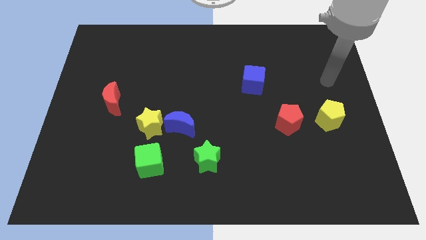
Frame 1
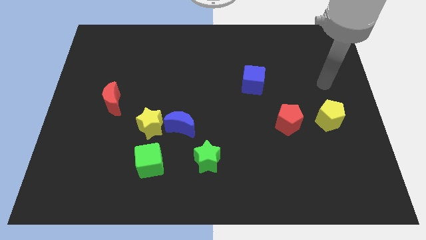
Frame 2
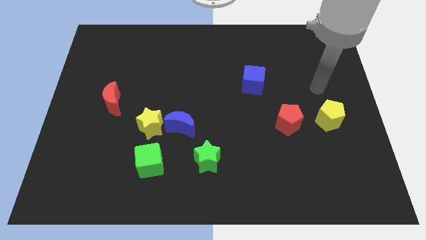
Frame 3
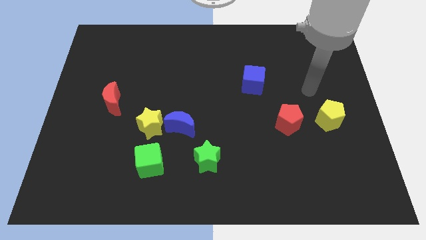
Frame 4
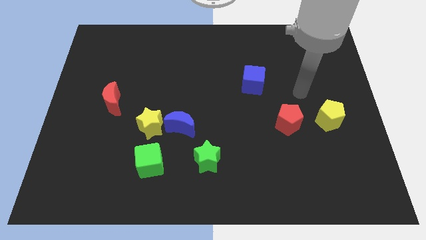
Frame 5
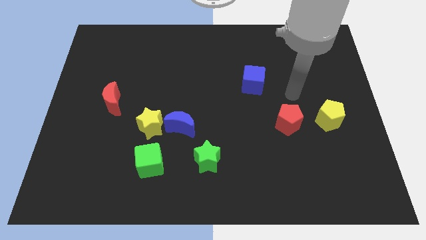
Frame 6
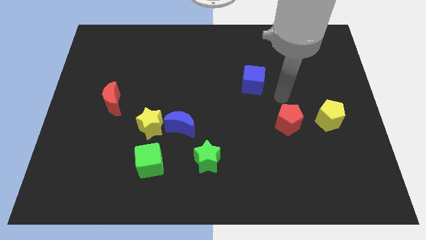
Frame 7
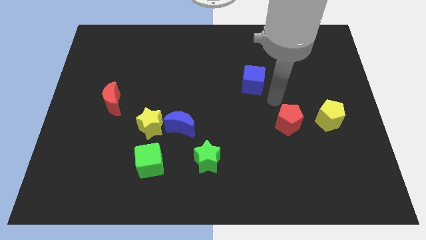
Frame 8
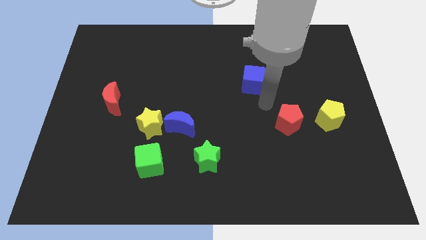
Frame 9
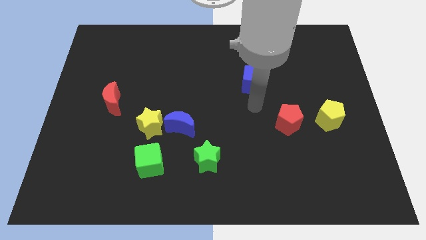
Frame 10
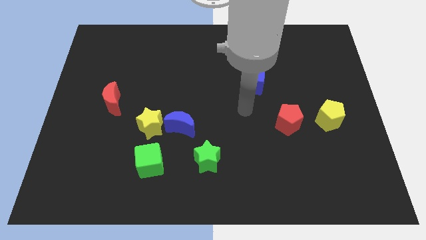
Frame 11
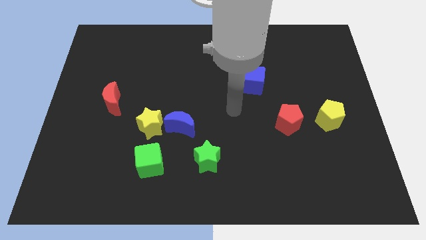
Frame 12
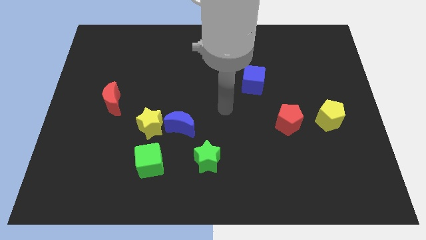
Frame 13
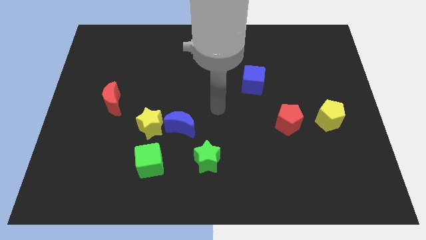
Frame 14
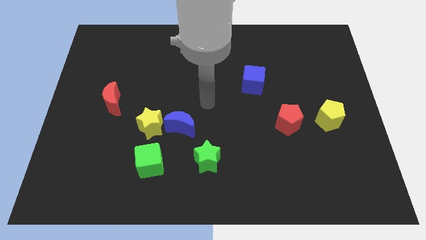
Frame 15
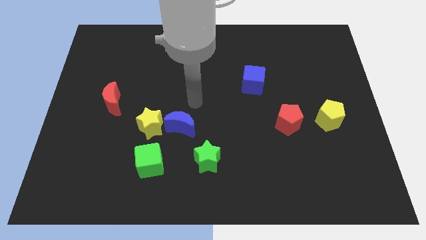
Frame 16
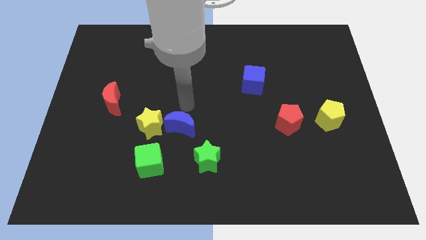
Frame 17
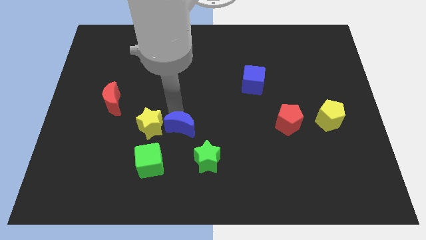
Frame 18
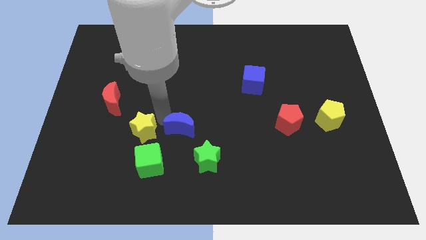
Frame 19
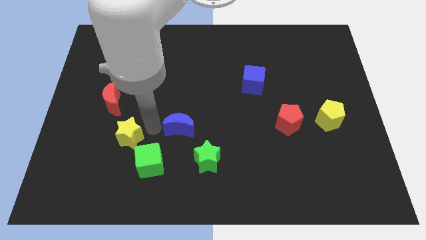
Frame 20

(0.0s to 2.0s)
move the blue moon away from the yellow star

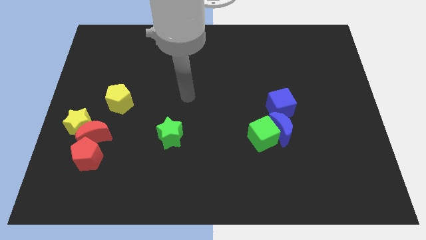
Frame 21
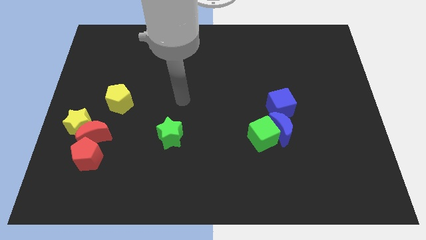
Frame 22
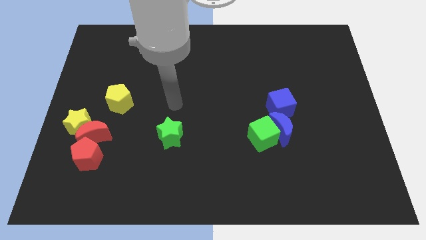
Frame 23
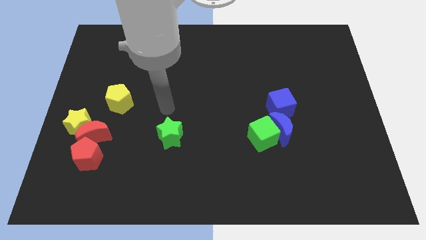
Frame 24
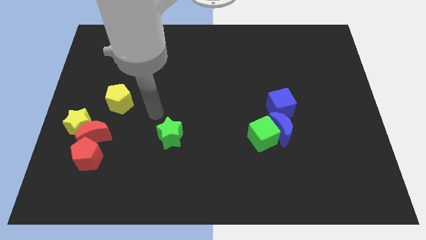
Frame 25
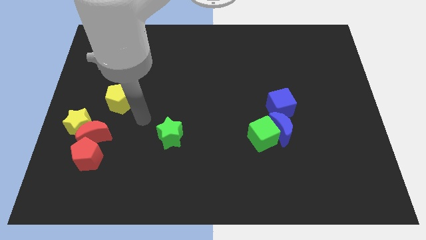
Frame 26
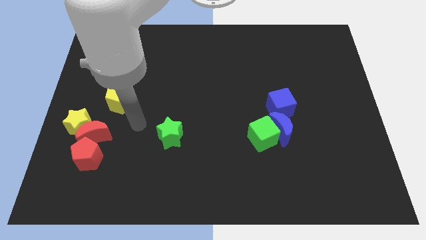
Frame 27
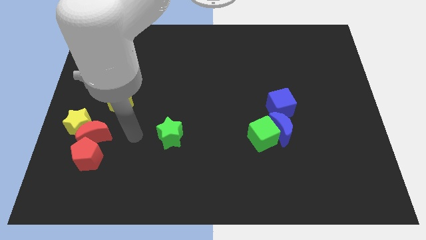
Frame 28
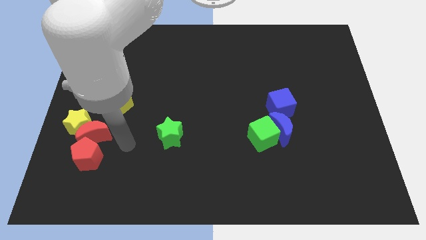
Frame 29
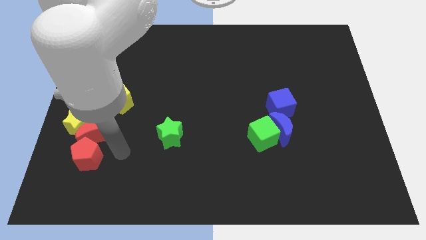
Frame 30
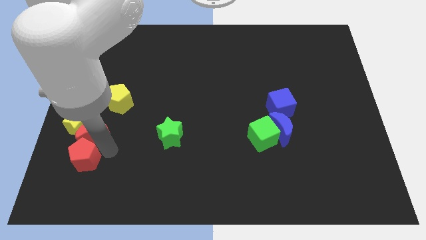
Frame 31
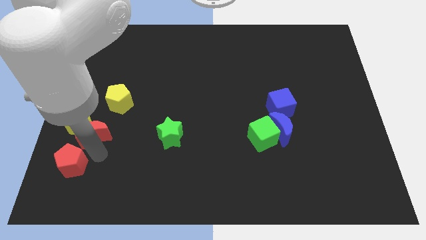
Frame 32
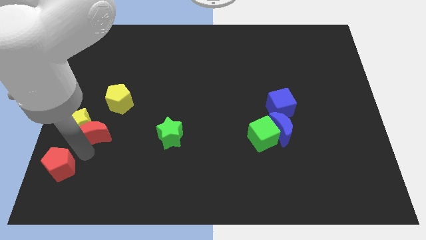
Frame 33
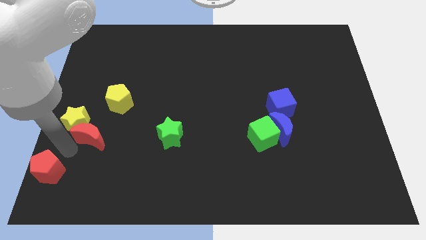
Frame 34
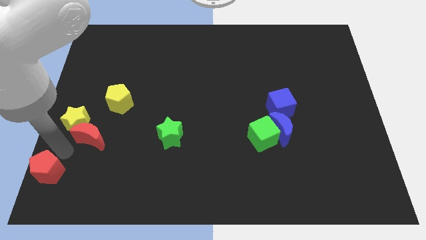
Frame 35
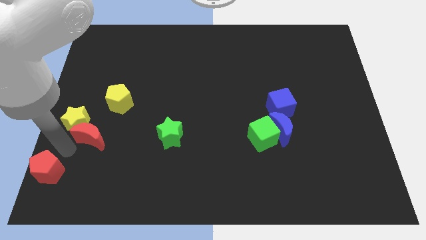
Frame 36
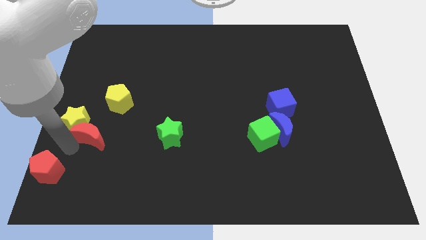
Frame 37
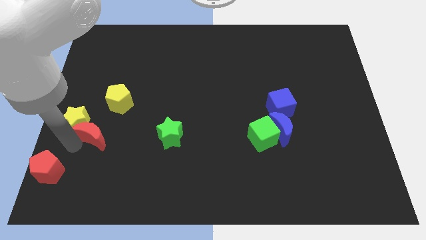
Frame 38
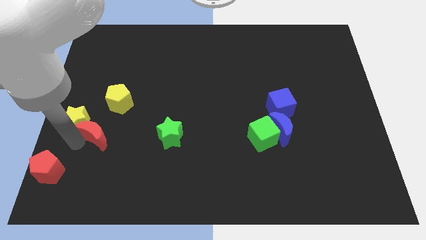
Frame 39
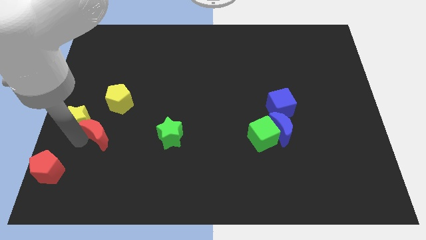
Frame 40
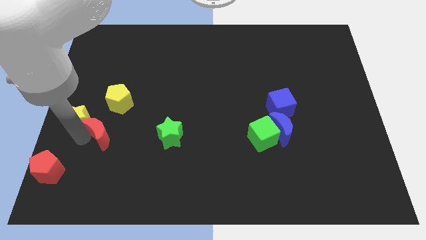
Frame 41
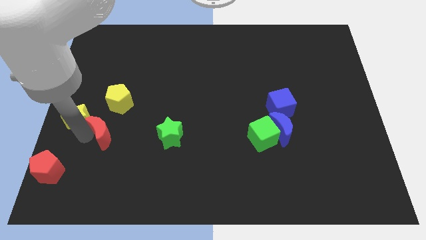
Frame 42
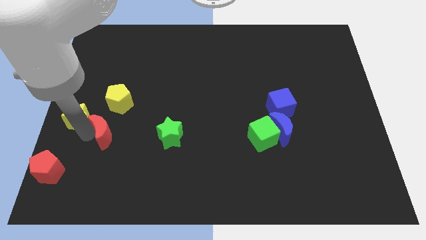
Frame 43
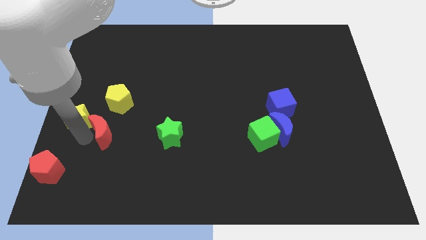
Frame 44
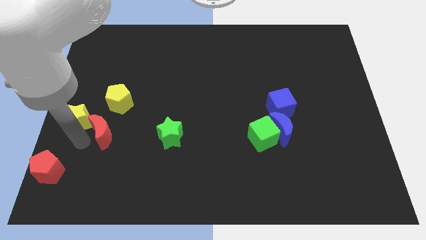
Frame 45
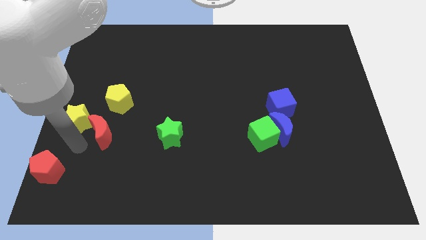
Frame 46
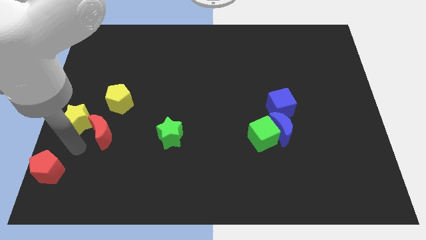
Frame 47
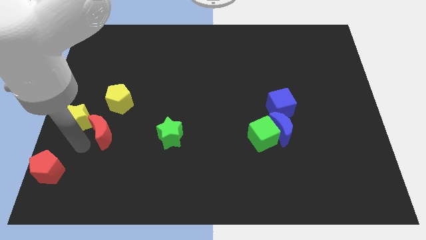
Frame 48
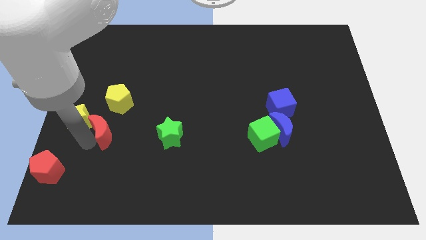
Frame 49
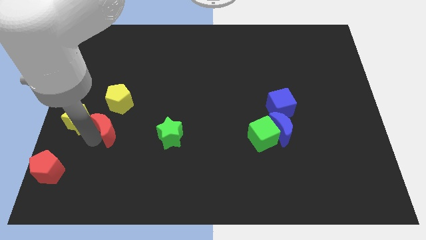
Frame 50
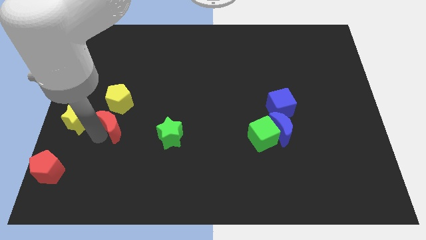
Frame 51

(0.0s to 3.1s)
separate the red moon from the yellow star and red pentagon

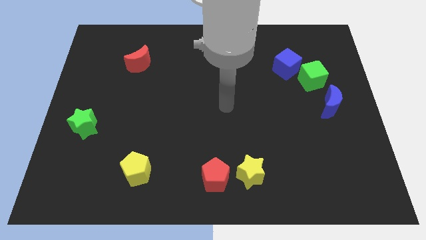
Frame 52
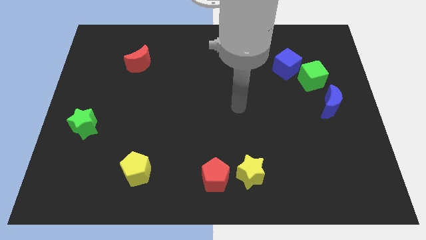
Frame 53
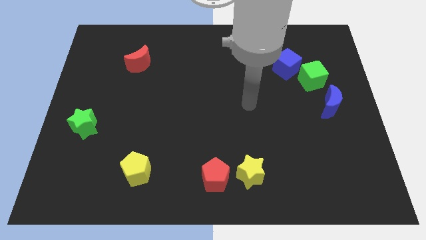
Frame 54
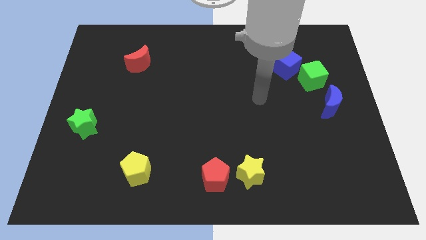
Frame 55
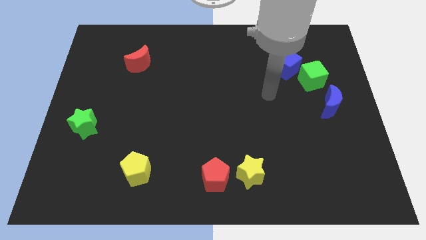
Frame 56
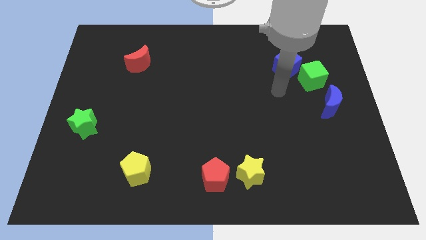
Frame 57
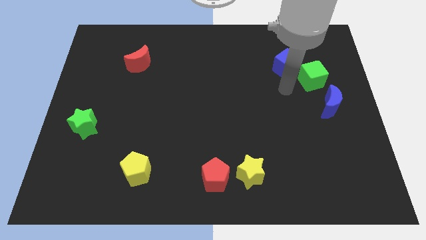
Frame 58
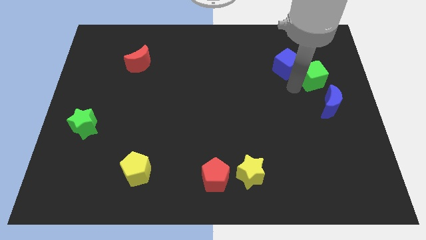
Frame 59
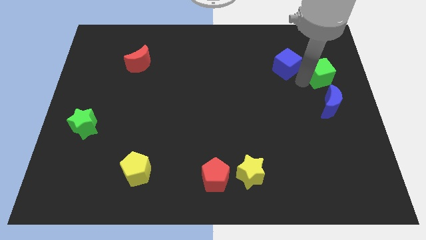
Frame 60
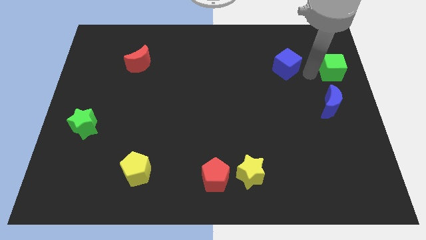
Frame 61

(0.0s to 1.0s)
move the blue cube away from the green cube

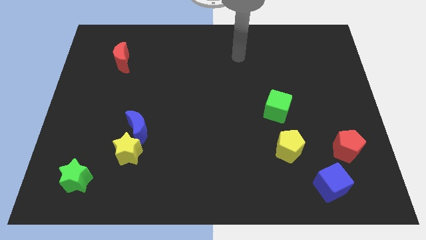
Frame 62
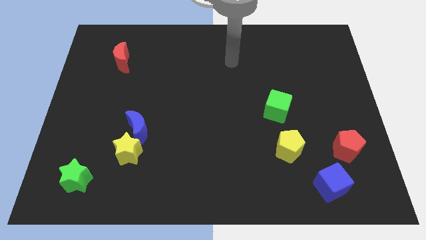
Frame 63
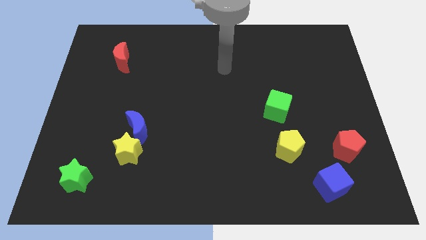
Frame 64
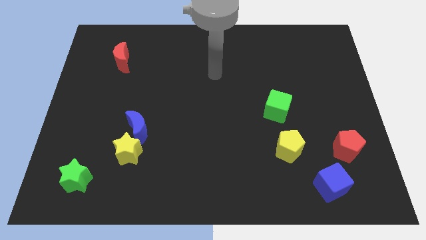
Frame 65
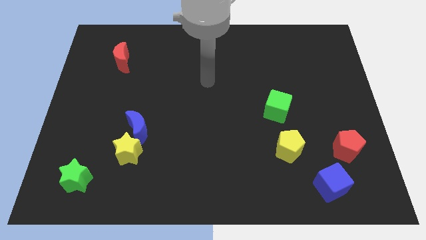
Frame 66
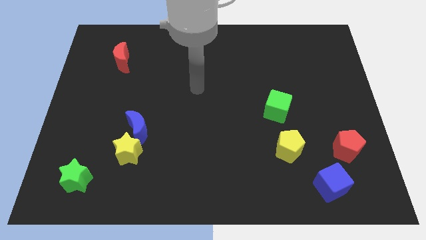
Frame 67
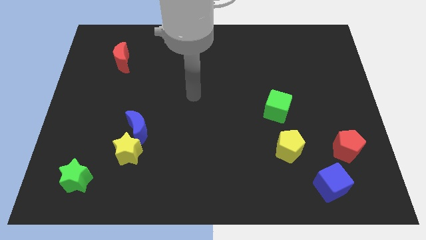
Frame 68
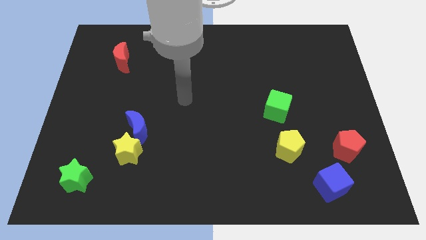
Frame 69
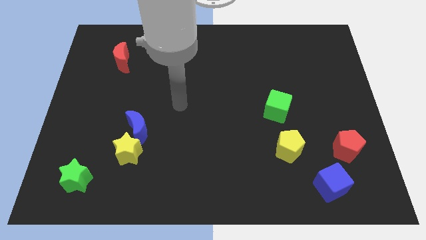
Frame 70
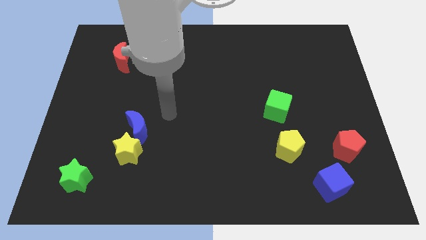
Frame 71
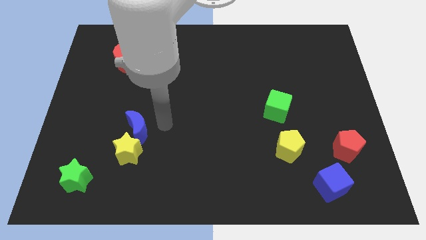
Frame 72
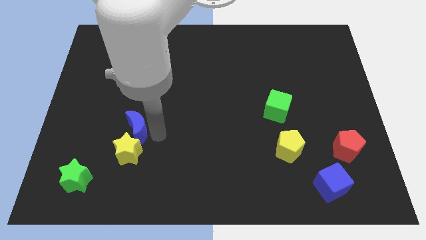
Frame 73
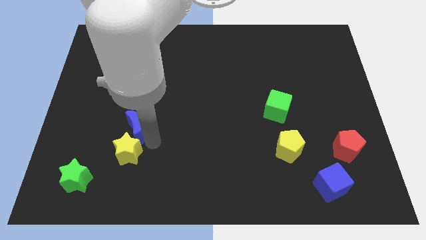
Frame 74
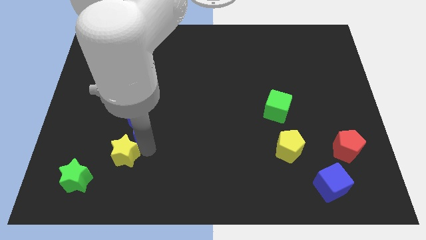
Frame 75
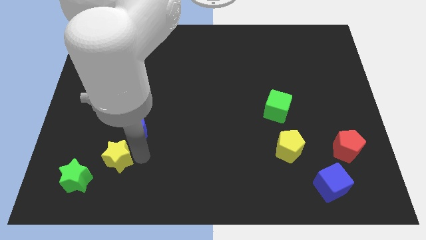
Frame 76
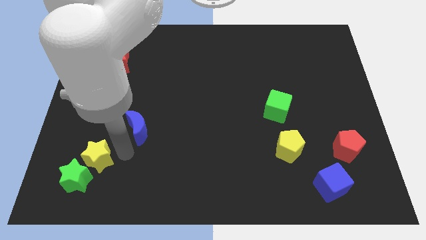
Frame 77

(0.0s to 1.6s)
pull the blue moon apart from the yellow star

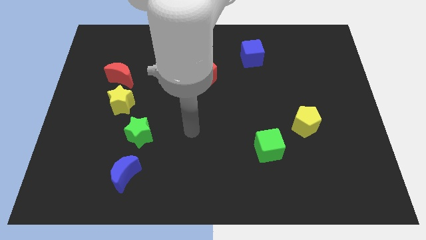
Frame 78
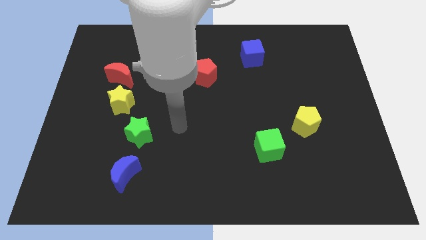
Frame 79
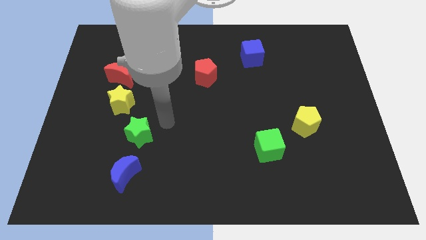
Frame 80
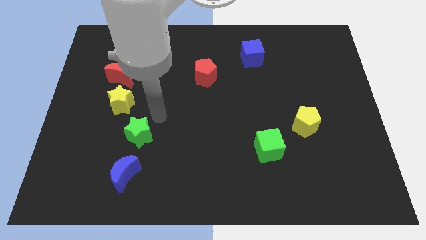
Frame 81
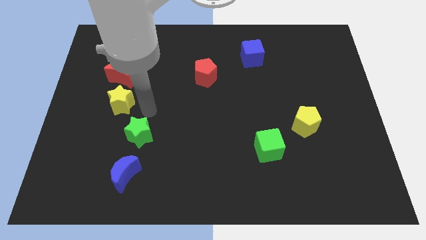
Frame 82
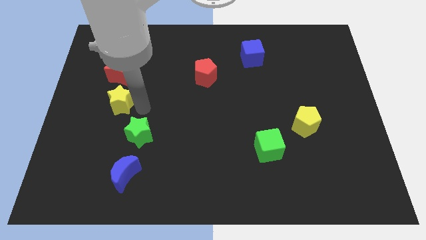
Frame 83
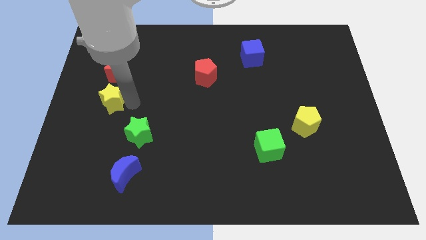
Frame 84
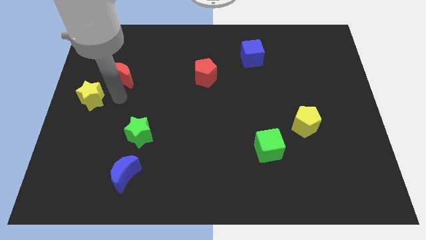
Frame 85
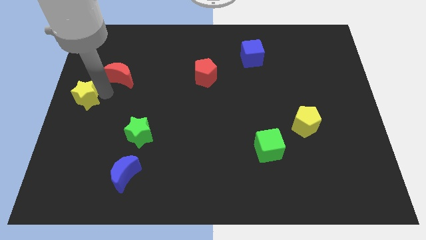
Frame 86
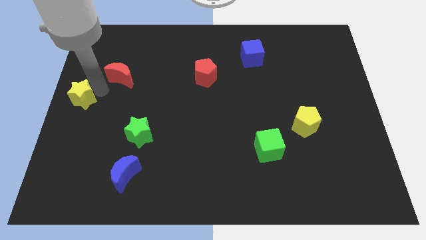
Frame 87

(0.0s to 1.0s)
separate the red moon from the yellow star

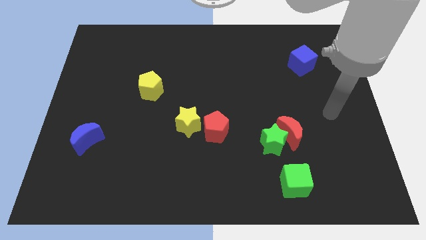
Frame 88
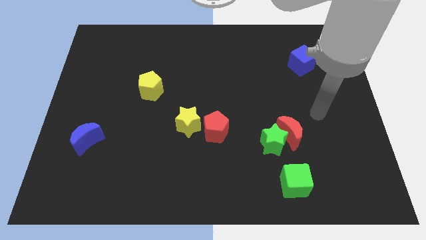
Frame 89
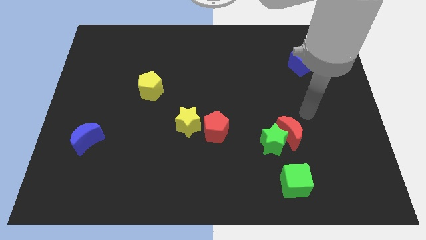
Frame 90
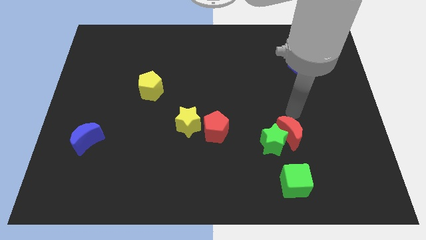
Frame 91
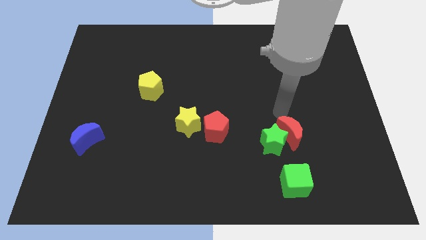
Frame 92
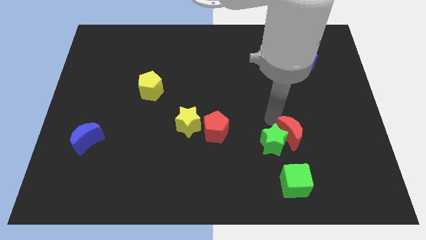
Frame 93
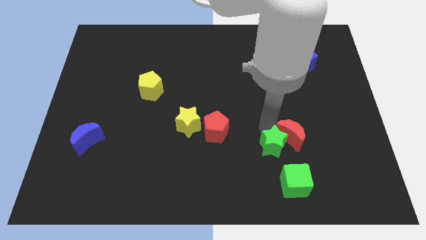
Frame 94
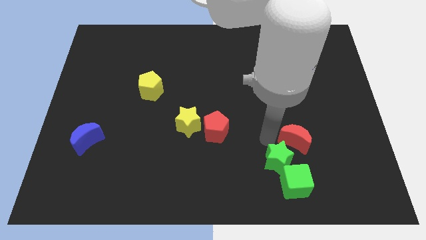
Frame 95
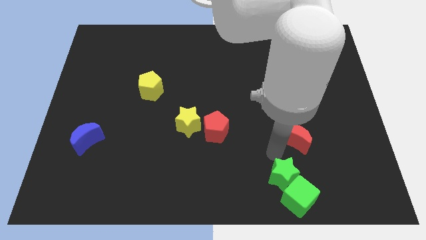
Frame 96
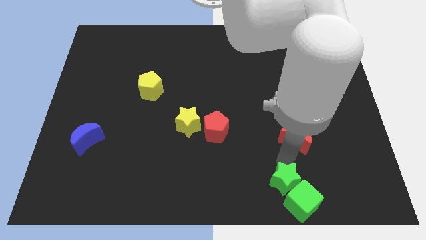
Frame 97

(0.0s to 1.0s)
pull the red moon apart from the green star
